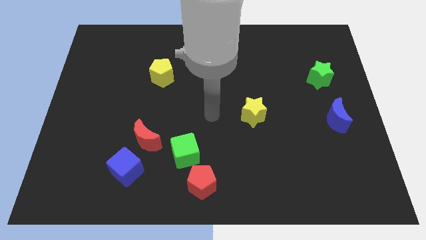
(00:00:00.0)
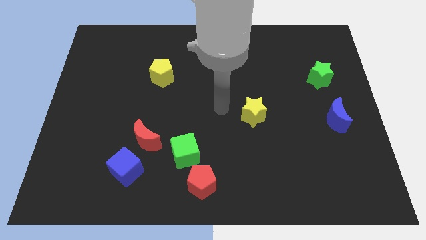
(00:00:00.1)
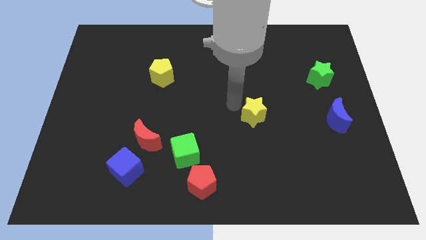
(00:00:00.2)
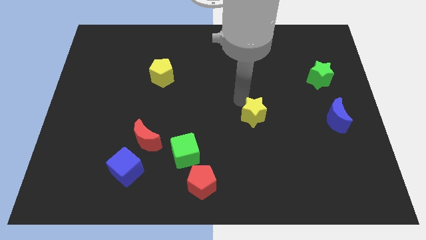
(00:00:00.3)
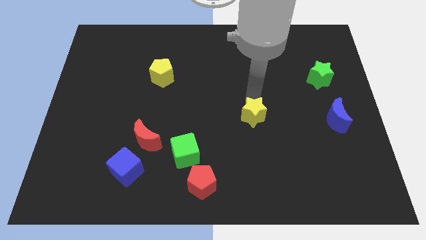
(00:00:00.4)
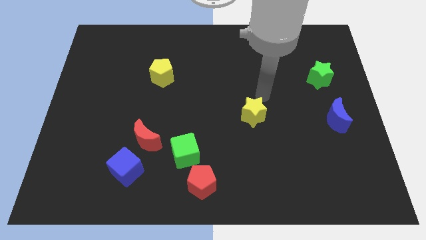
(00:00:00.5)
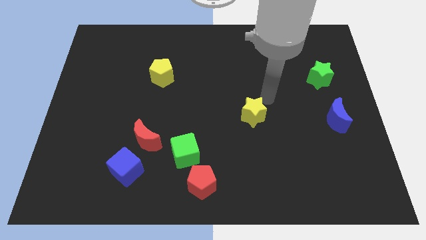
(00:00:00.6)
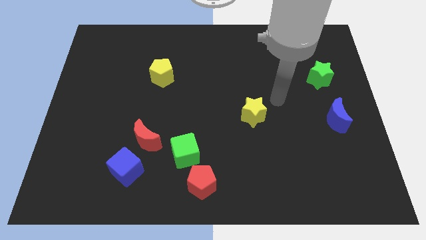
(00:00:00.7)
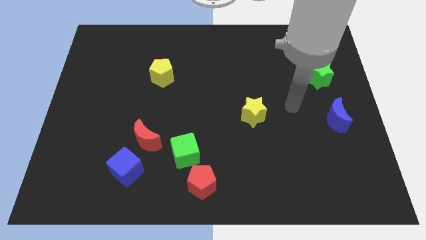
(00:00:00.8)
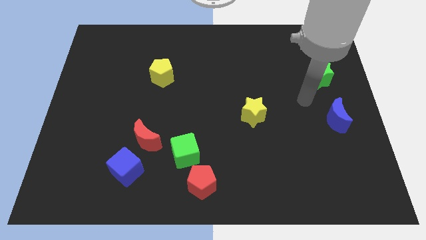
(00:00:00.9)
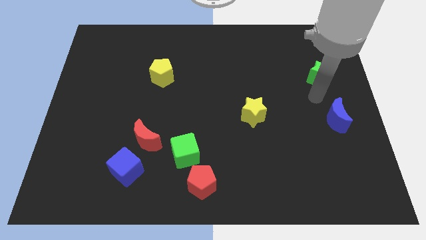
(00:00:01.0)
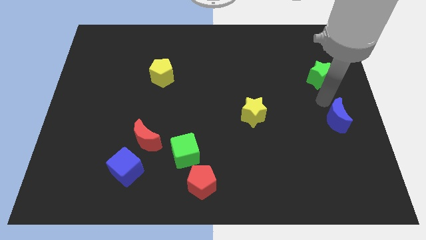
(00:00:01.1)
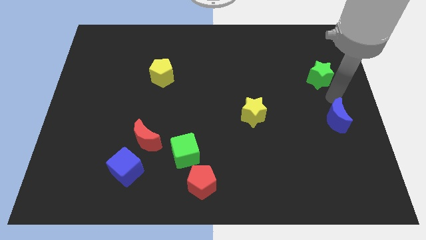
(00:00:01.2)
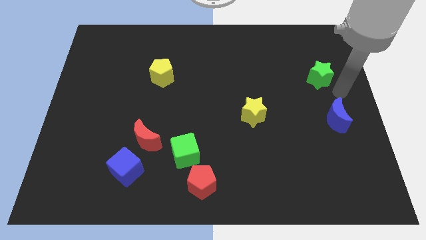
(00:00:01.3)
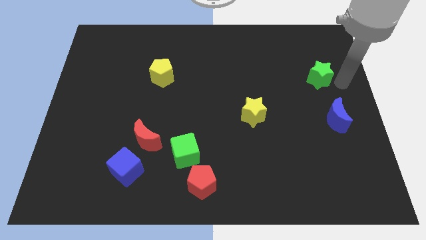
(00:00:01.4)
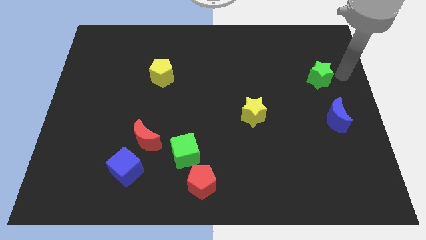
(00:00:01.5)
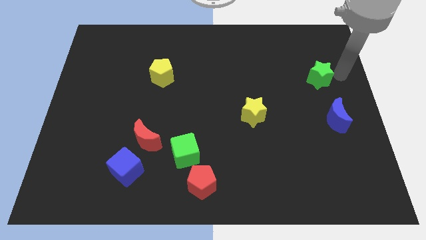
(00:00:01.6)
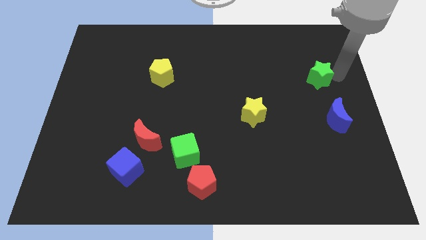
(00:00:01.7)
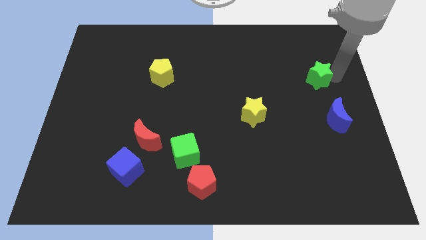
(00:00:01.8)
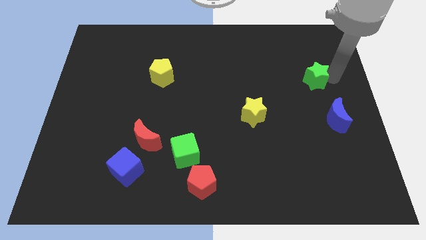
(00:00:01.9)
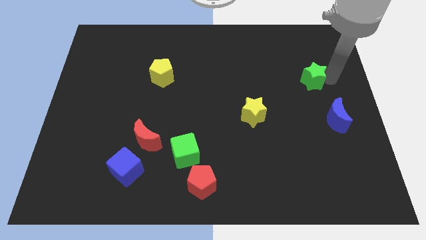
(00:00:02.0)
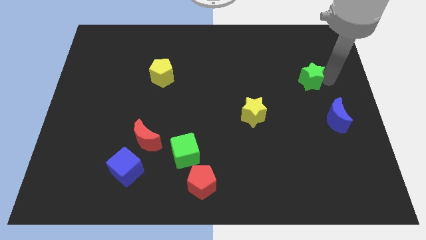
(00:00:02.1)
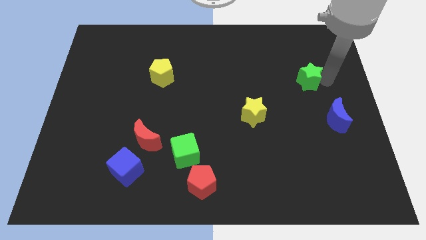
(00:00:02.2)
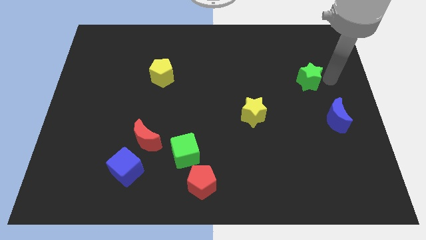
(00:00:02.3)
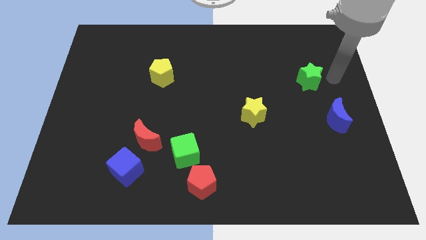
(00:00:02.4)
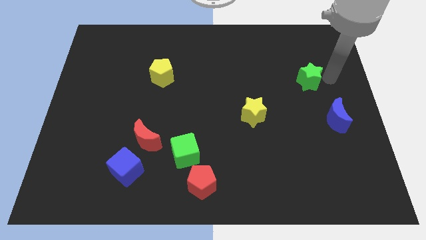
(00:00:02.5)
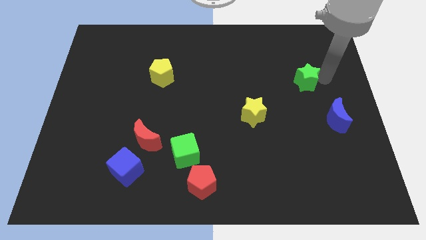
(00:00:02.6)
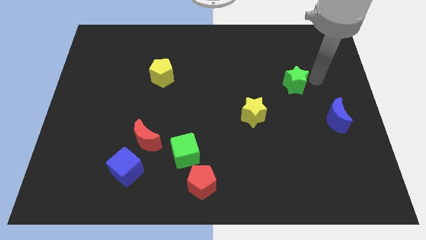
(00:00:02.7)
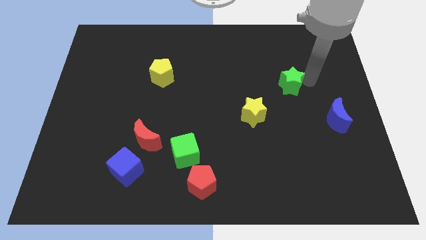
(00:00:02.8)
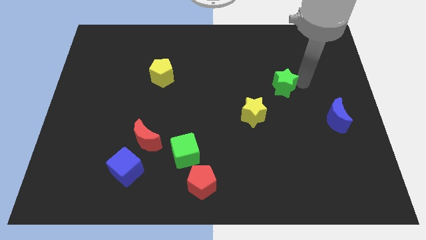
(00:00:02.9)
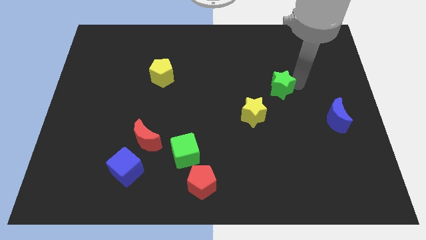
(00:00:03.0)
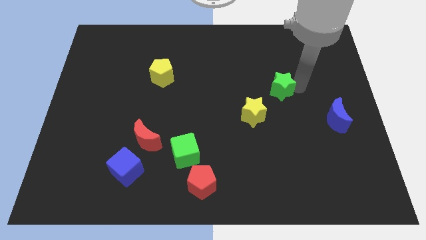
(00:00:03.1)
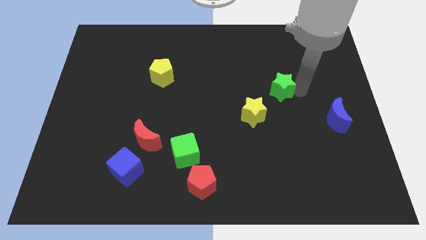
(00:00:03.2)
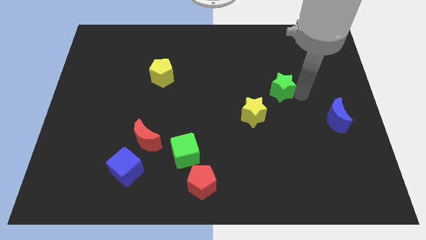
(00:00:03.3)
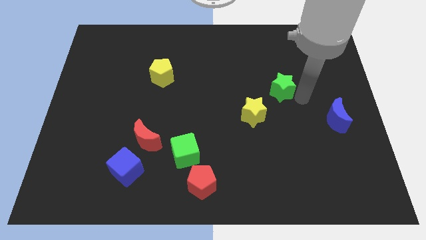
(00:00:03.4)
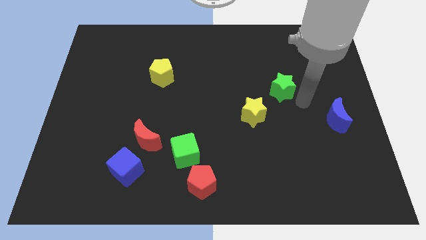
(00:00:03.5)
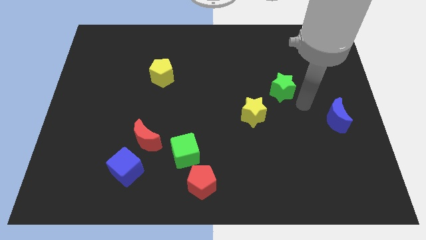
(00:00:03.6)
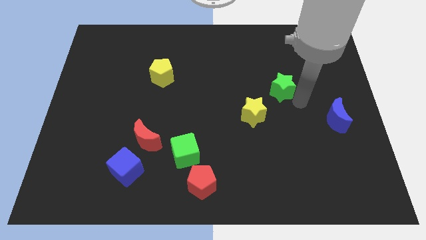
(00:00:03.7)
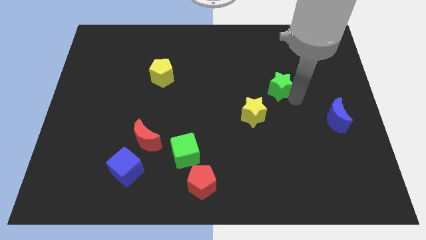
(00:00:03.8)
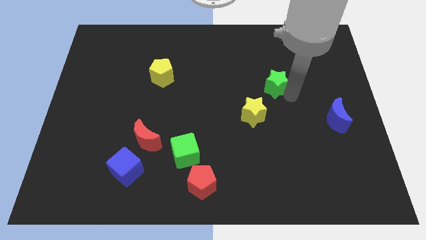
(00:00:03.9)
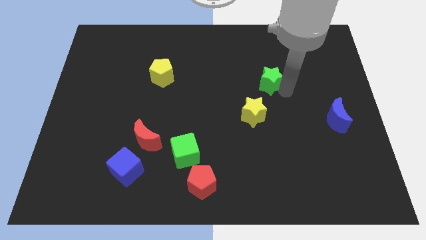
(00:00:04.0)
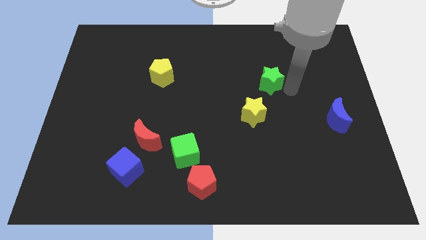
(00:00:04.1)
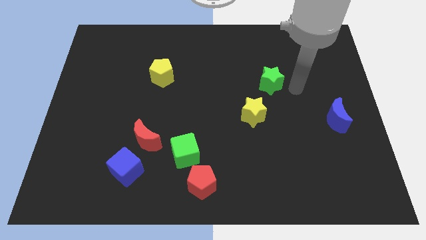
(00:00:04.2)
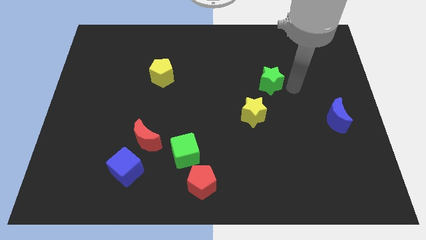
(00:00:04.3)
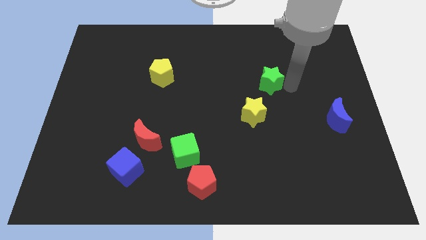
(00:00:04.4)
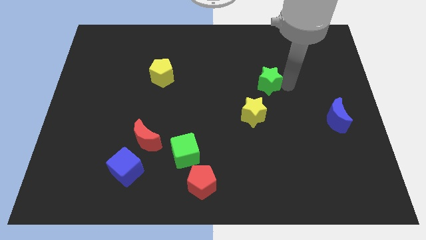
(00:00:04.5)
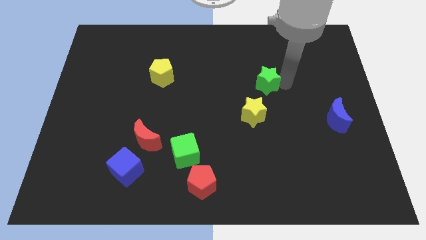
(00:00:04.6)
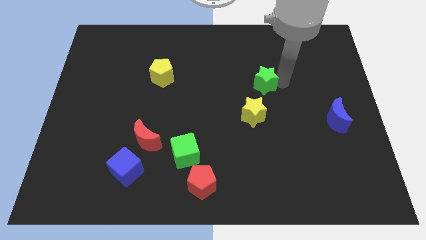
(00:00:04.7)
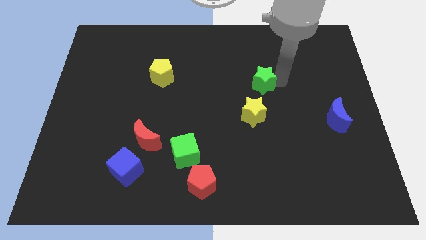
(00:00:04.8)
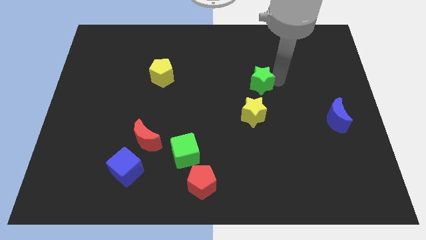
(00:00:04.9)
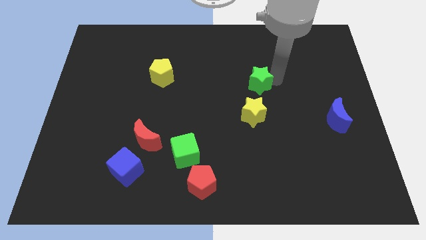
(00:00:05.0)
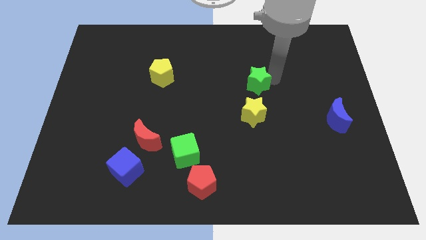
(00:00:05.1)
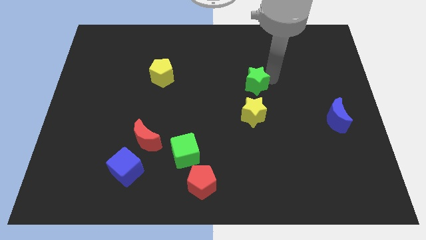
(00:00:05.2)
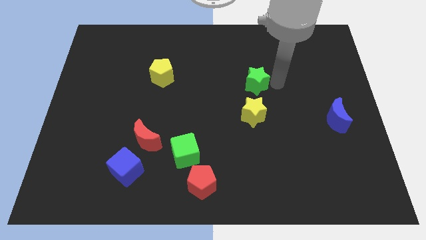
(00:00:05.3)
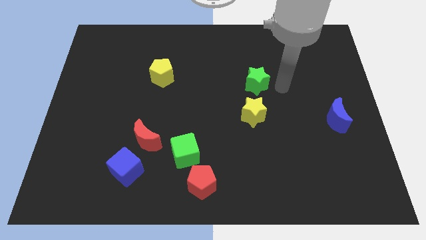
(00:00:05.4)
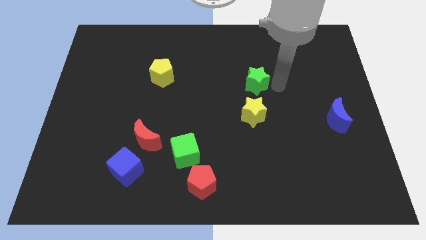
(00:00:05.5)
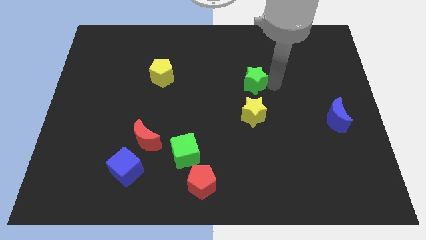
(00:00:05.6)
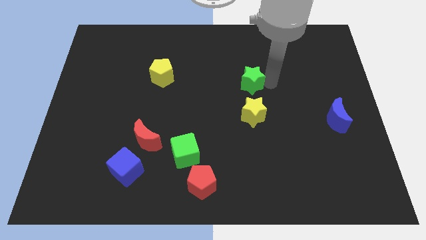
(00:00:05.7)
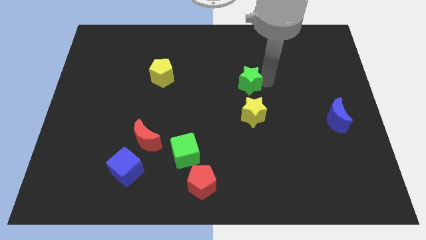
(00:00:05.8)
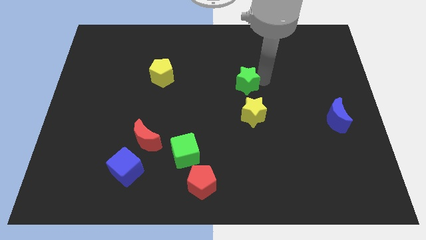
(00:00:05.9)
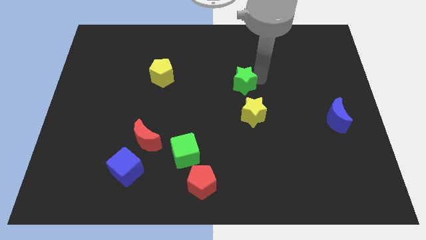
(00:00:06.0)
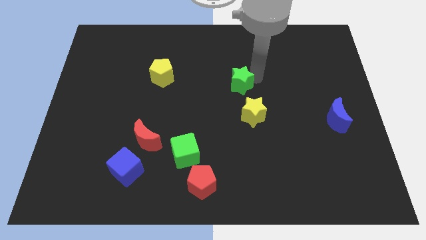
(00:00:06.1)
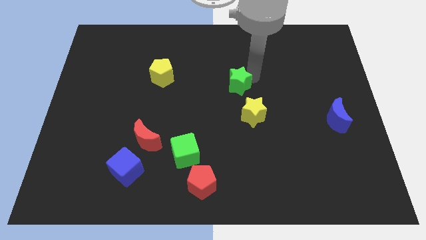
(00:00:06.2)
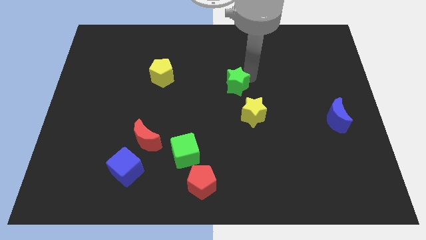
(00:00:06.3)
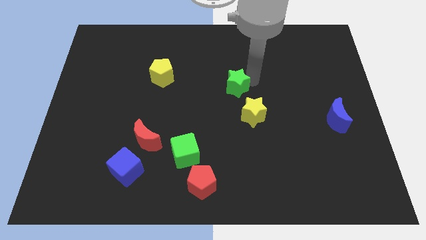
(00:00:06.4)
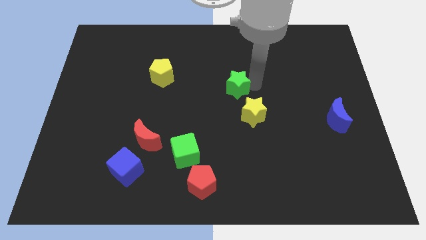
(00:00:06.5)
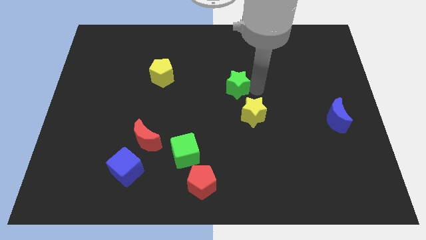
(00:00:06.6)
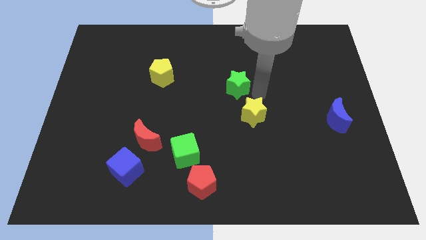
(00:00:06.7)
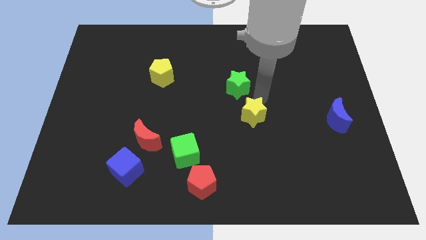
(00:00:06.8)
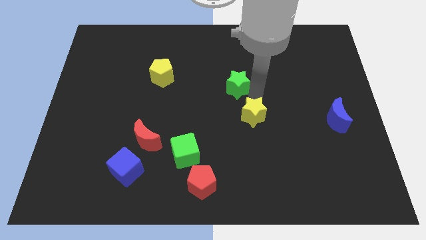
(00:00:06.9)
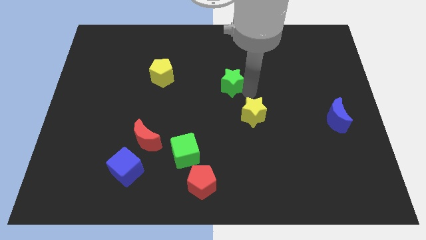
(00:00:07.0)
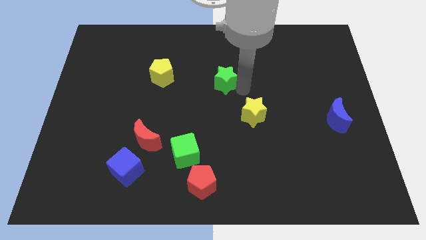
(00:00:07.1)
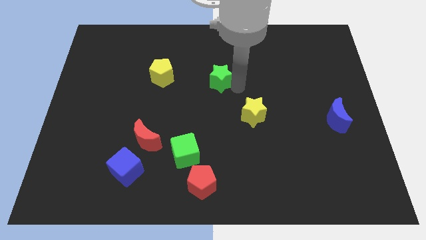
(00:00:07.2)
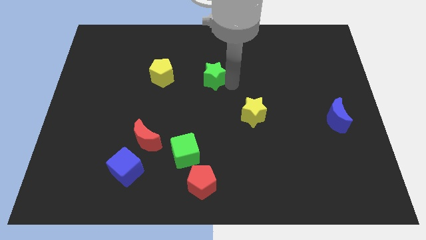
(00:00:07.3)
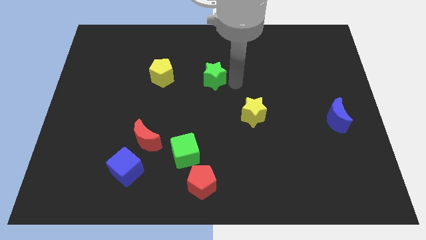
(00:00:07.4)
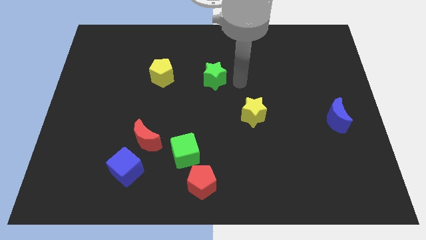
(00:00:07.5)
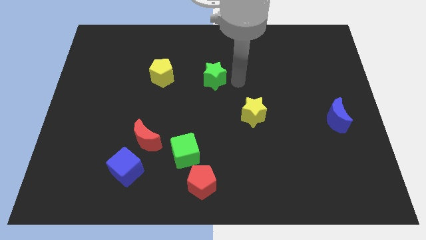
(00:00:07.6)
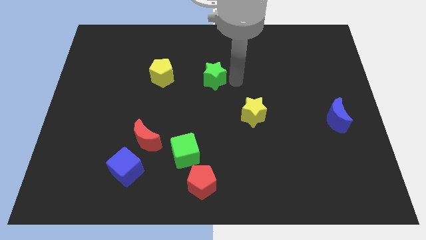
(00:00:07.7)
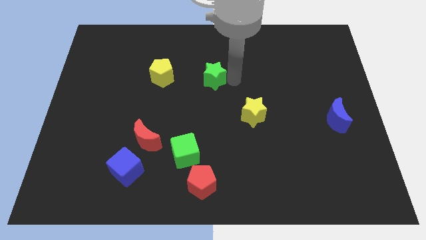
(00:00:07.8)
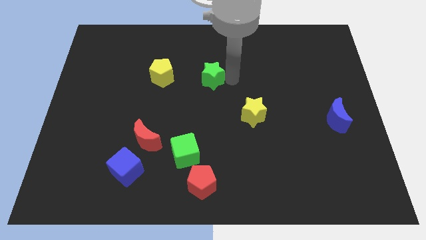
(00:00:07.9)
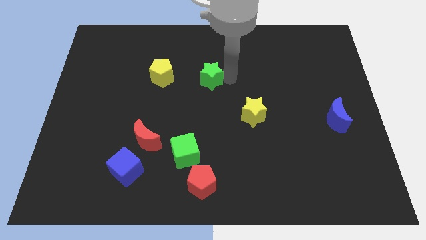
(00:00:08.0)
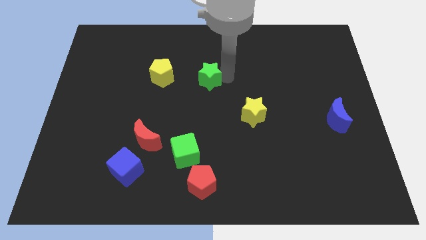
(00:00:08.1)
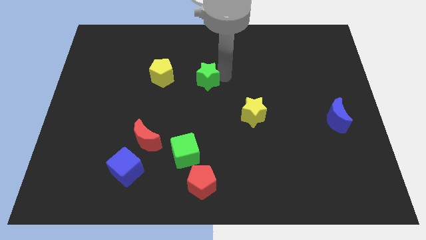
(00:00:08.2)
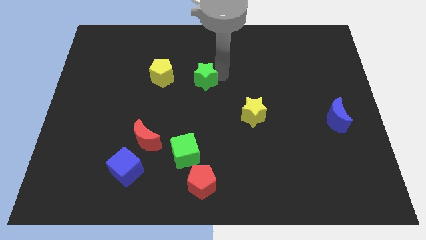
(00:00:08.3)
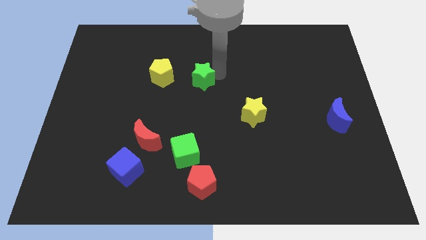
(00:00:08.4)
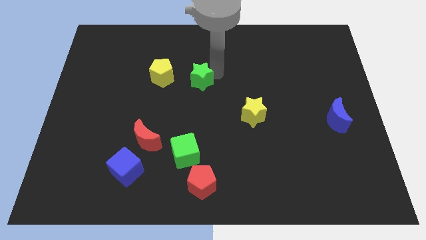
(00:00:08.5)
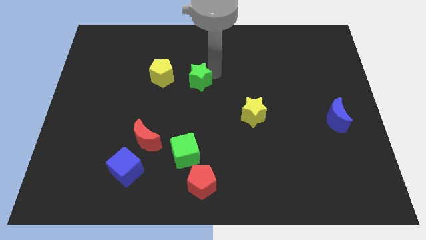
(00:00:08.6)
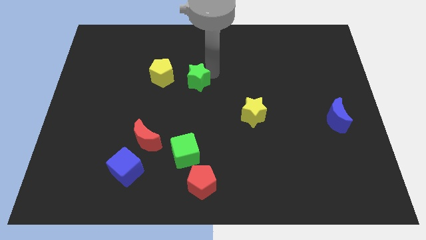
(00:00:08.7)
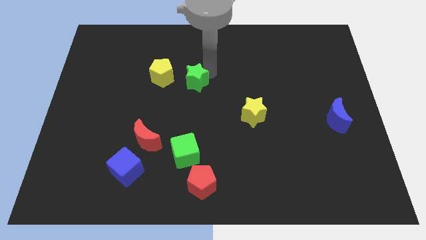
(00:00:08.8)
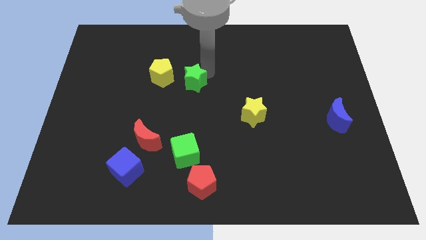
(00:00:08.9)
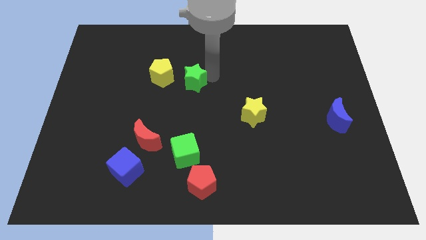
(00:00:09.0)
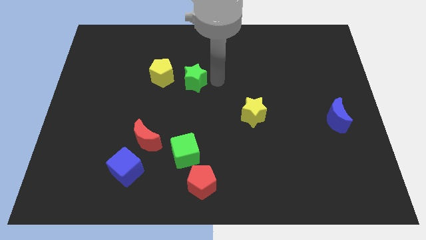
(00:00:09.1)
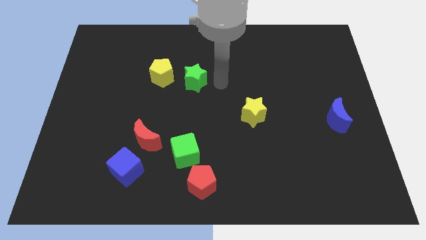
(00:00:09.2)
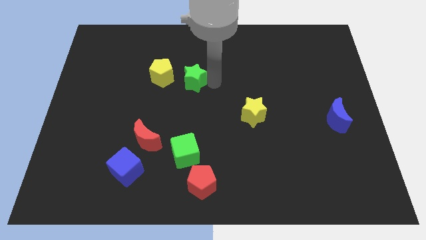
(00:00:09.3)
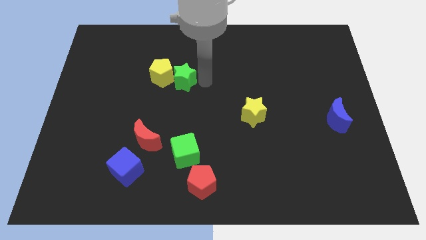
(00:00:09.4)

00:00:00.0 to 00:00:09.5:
put the green star close to the yellow pentagon
